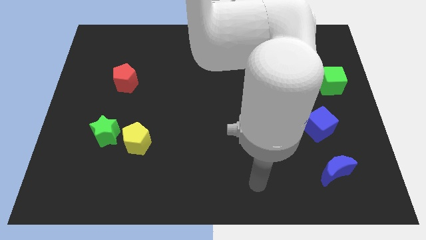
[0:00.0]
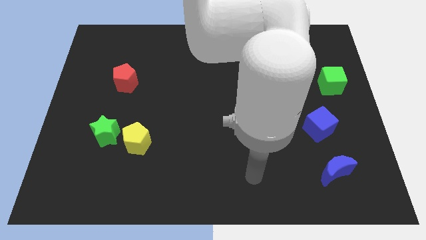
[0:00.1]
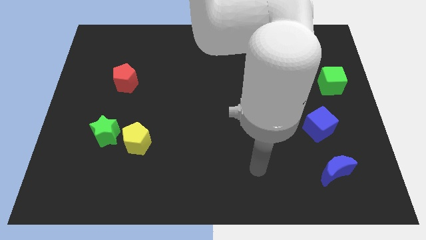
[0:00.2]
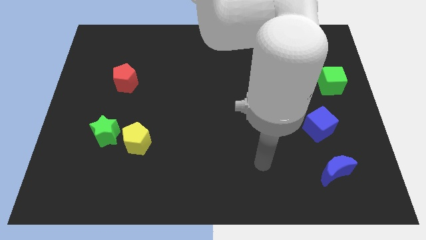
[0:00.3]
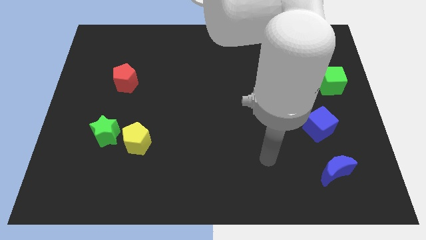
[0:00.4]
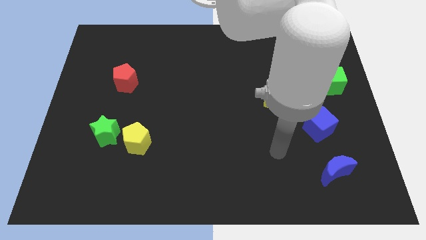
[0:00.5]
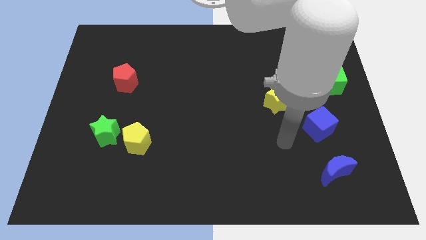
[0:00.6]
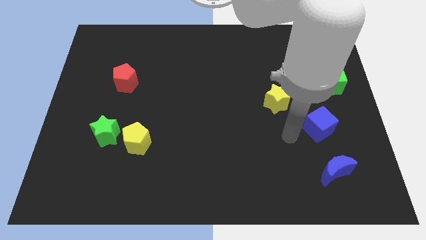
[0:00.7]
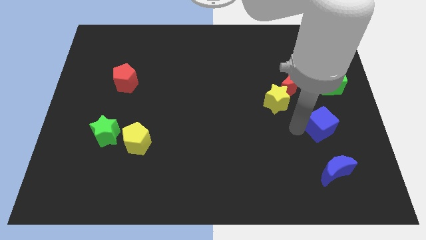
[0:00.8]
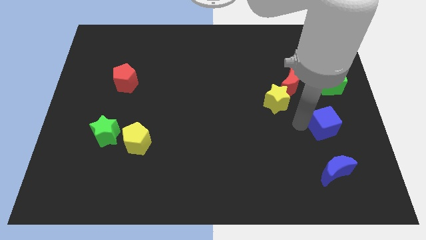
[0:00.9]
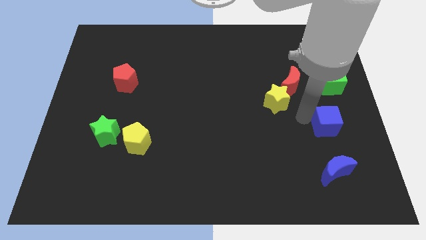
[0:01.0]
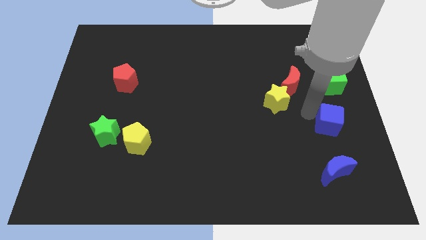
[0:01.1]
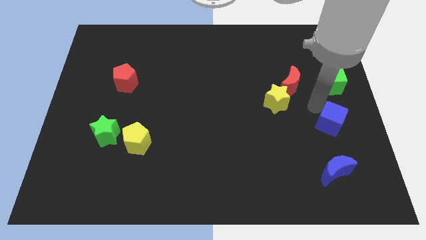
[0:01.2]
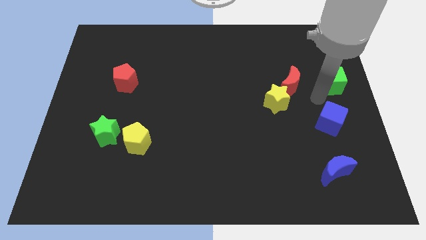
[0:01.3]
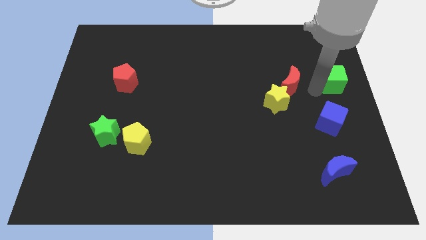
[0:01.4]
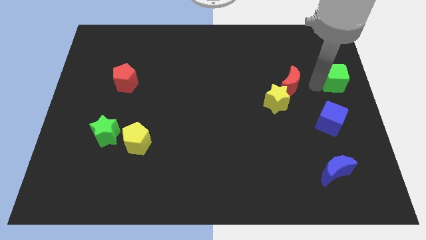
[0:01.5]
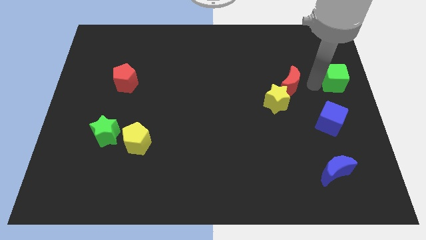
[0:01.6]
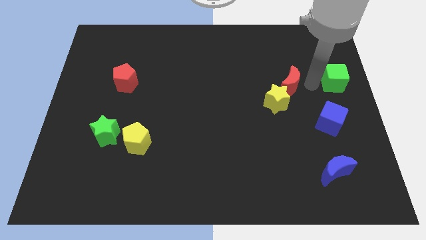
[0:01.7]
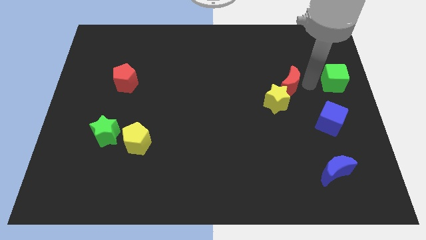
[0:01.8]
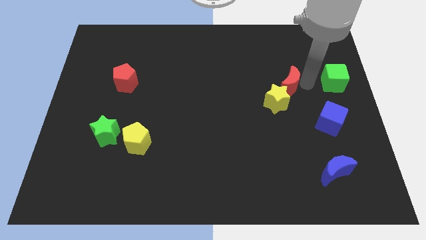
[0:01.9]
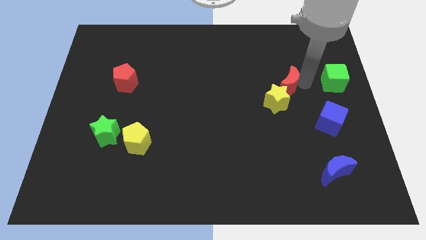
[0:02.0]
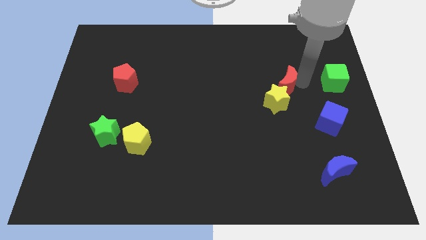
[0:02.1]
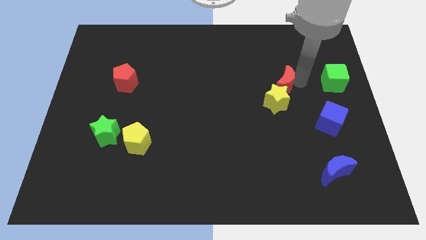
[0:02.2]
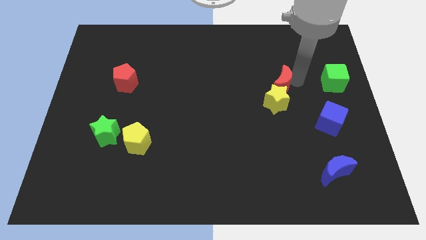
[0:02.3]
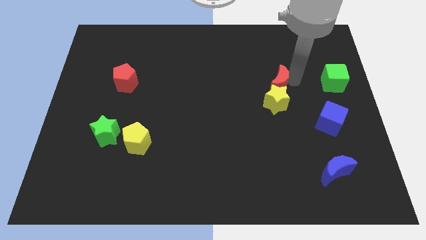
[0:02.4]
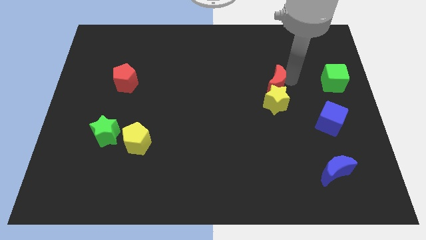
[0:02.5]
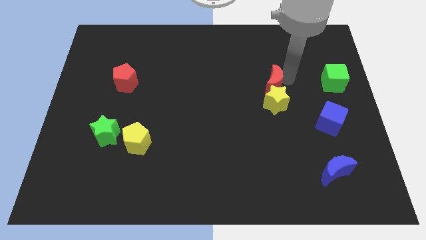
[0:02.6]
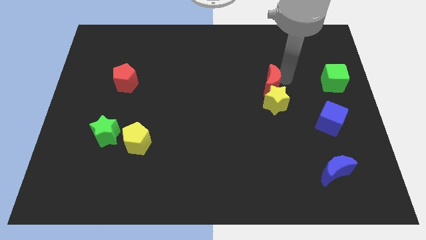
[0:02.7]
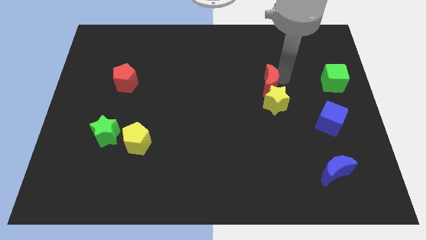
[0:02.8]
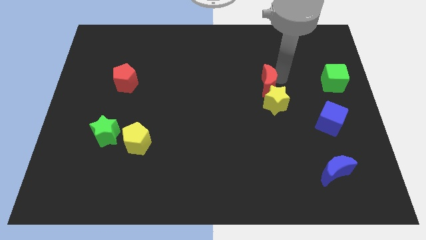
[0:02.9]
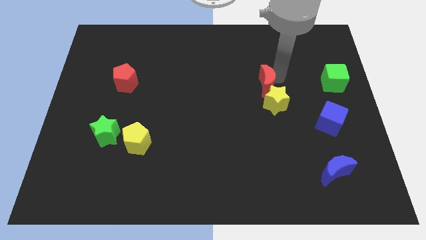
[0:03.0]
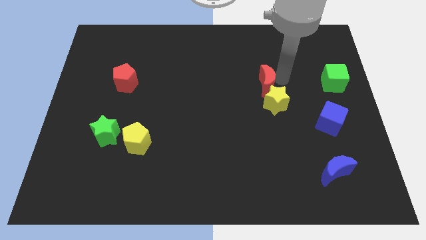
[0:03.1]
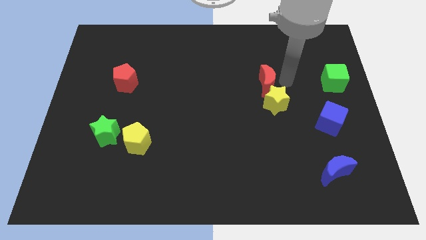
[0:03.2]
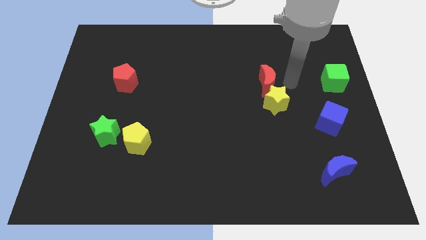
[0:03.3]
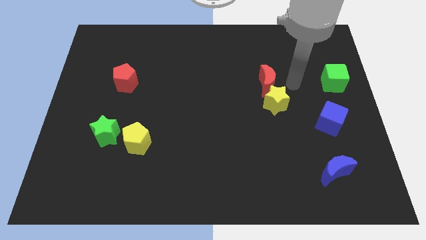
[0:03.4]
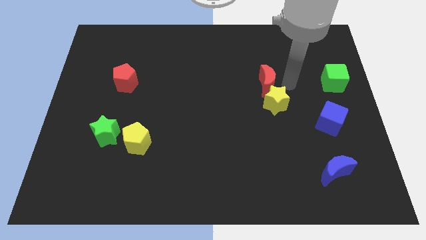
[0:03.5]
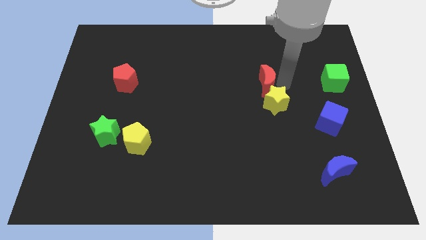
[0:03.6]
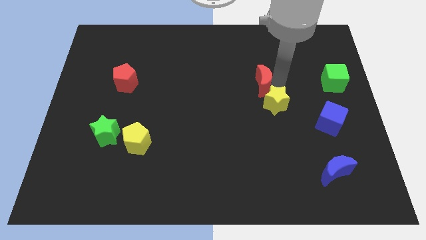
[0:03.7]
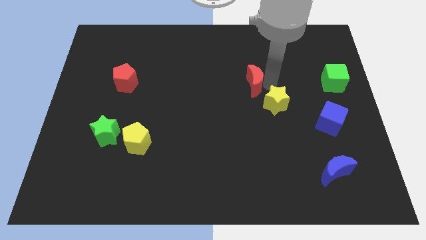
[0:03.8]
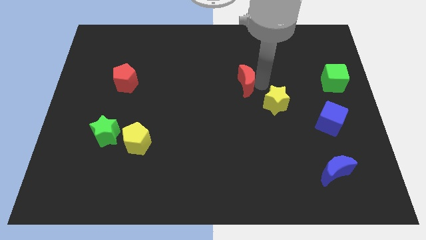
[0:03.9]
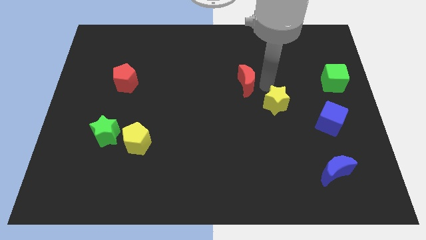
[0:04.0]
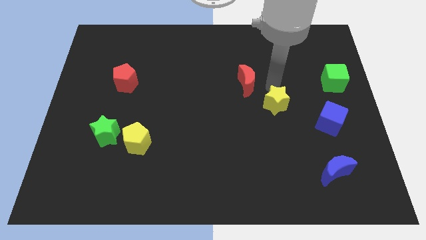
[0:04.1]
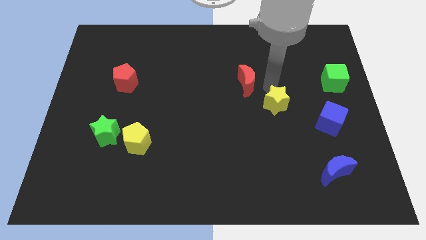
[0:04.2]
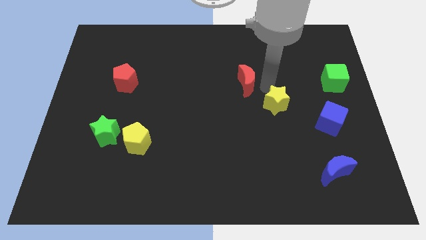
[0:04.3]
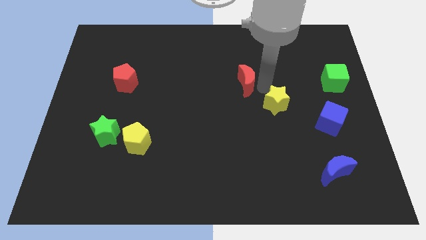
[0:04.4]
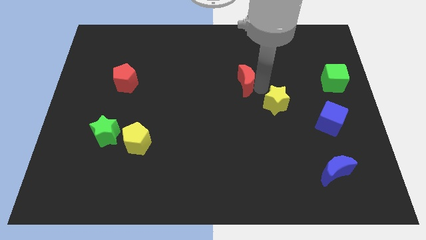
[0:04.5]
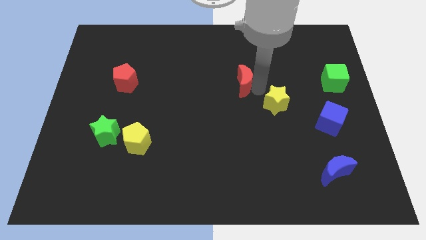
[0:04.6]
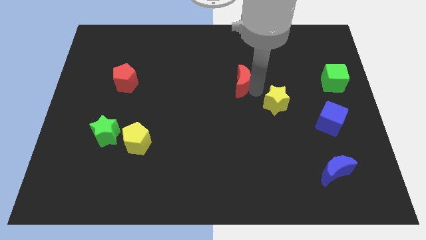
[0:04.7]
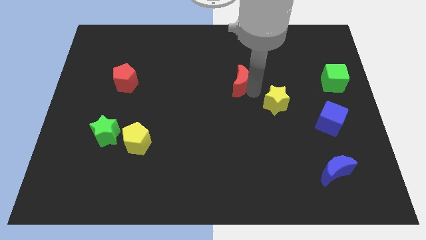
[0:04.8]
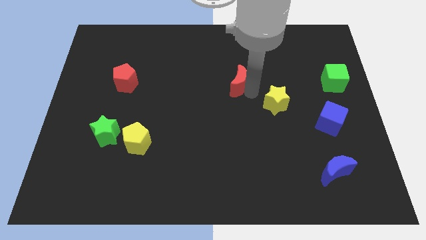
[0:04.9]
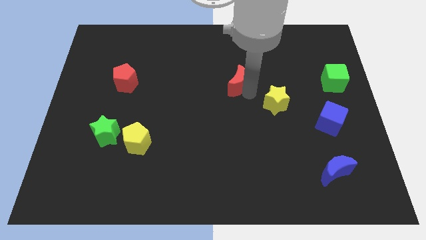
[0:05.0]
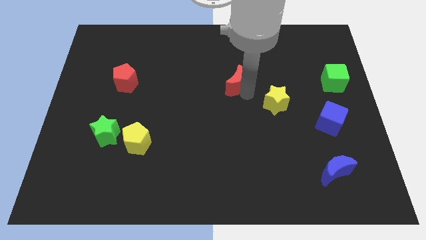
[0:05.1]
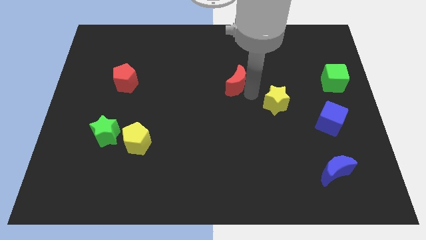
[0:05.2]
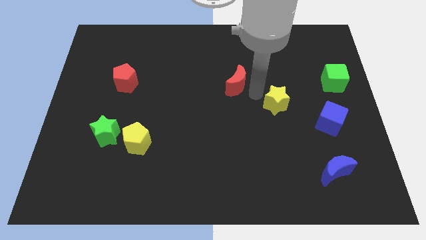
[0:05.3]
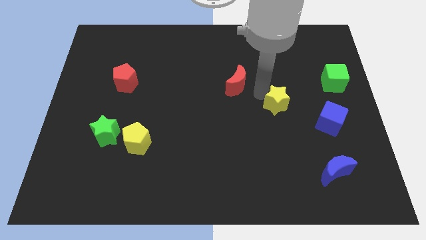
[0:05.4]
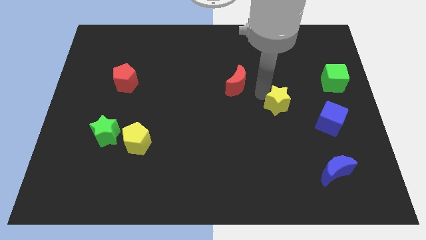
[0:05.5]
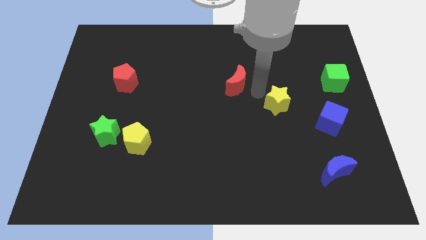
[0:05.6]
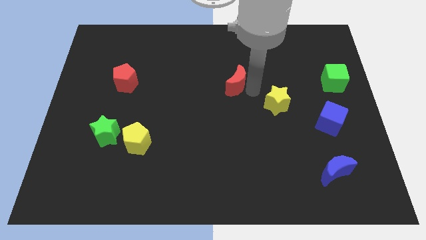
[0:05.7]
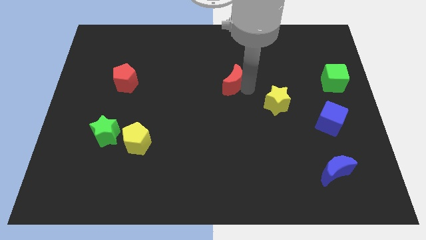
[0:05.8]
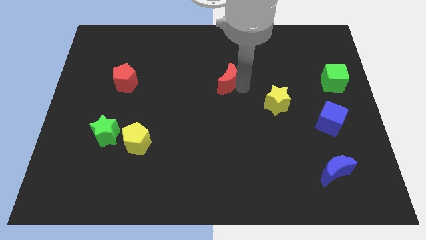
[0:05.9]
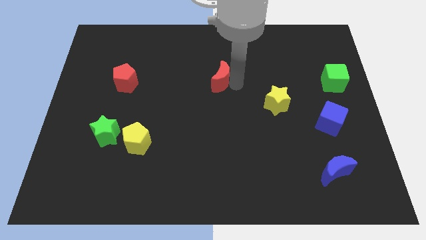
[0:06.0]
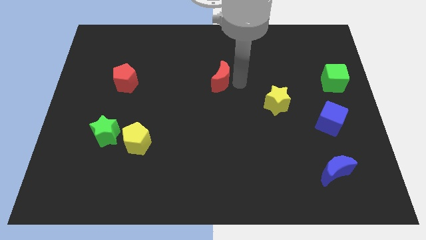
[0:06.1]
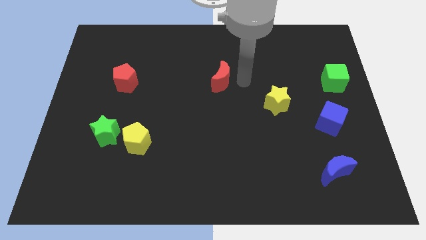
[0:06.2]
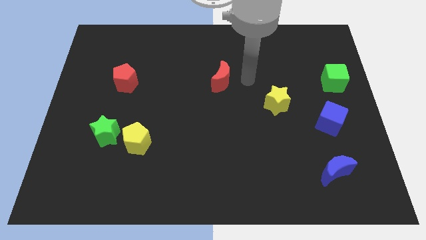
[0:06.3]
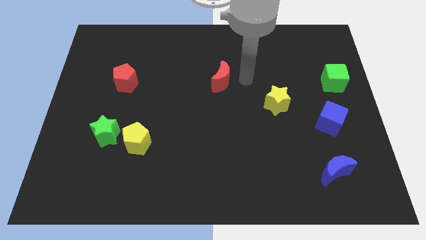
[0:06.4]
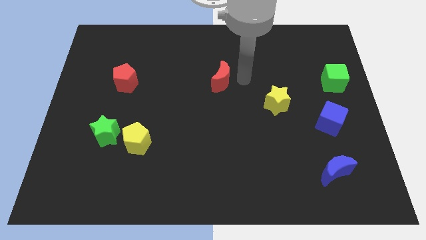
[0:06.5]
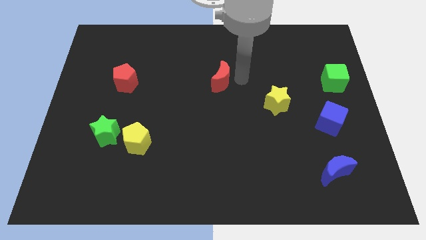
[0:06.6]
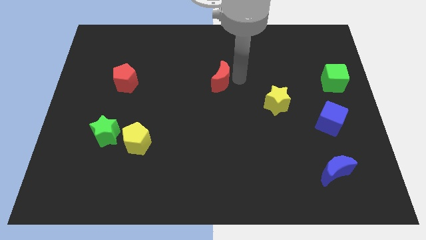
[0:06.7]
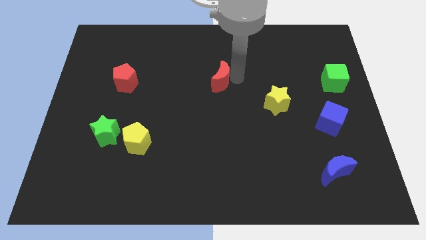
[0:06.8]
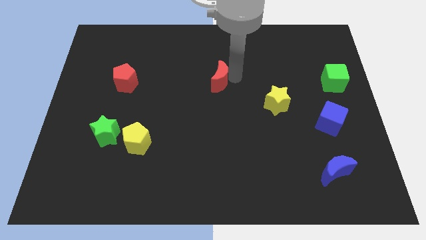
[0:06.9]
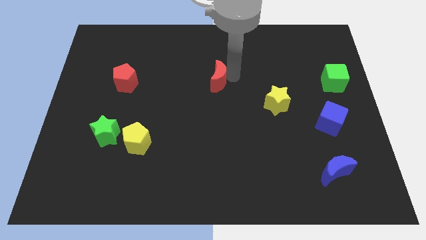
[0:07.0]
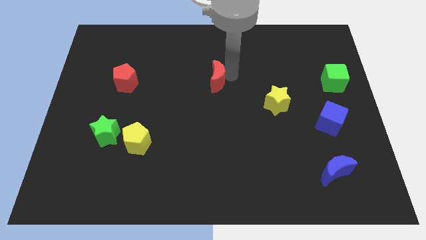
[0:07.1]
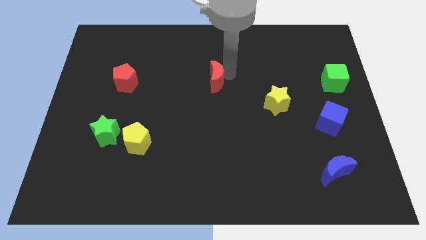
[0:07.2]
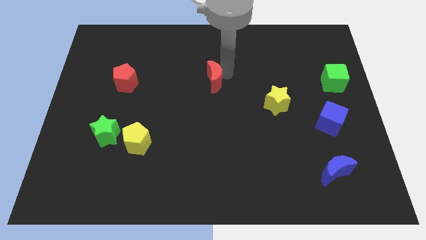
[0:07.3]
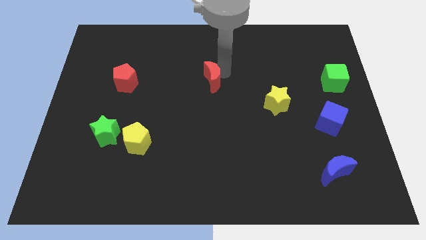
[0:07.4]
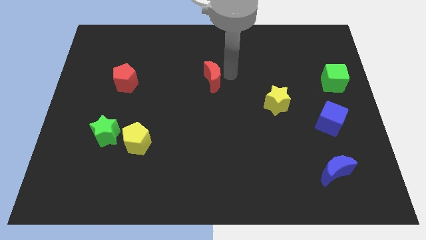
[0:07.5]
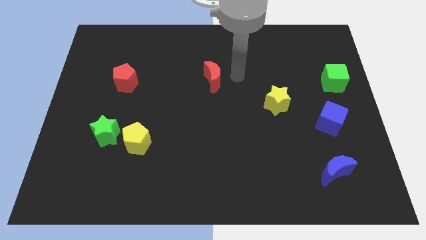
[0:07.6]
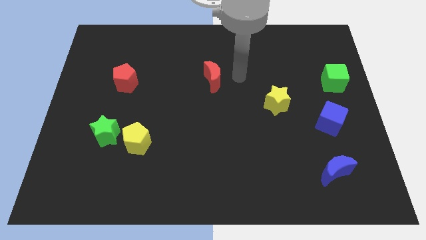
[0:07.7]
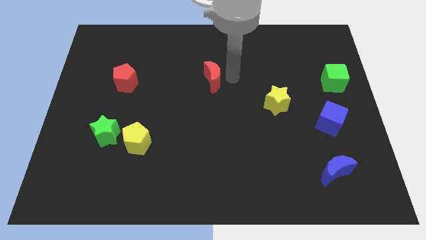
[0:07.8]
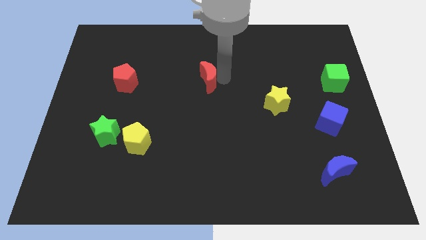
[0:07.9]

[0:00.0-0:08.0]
push the red moon left
